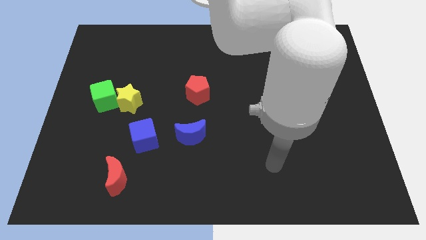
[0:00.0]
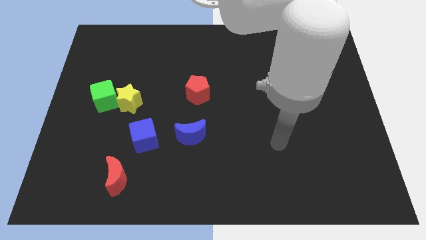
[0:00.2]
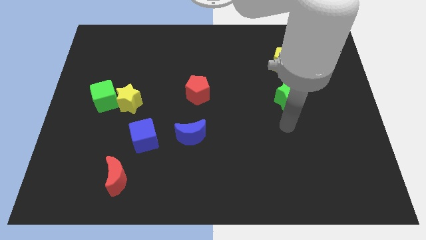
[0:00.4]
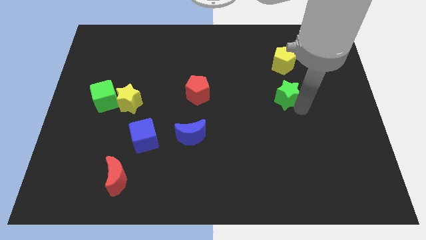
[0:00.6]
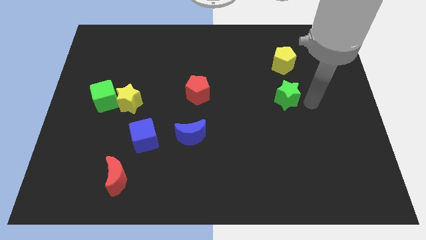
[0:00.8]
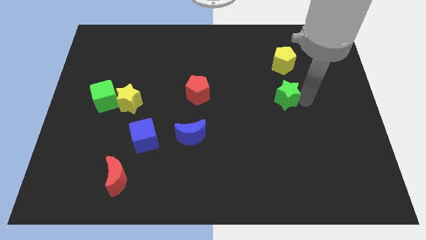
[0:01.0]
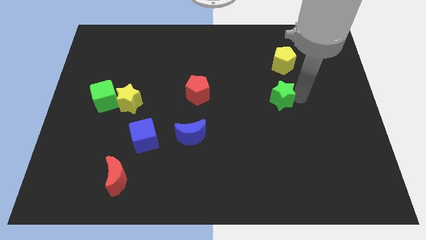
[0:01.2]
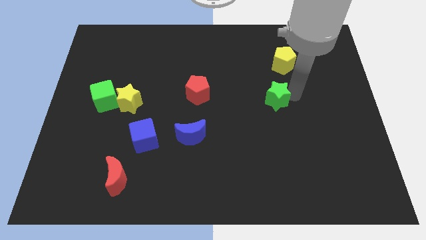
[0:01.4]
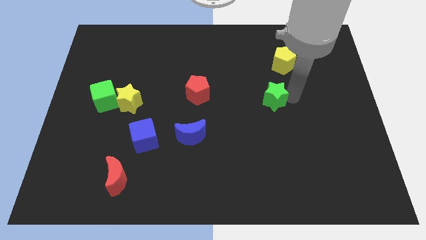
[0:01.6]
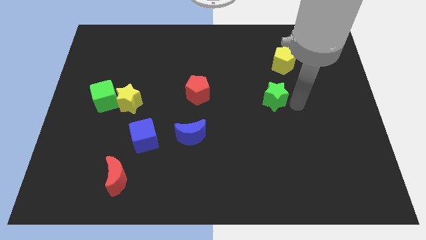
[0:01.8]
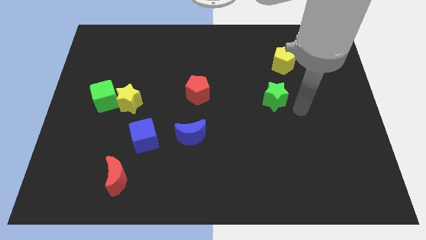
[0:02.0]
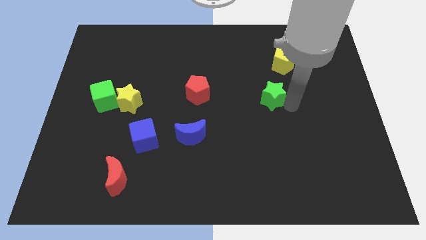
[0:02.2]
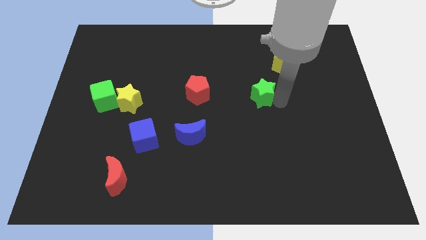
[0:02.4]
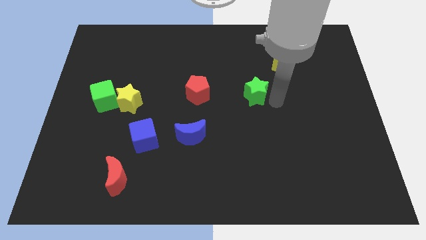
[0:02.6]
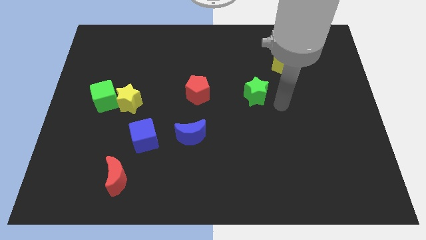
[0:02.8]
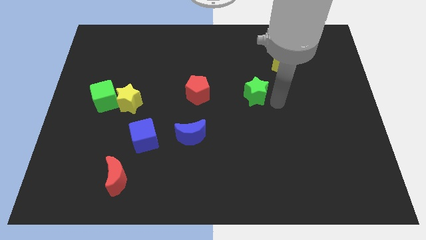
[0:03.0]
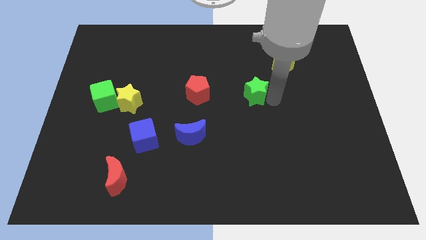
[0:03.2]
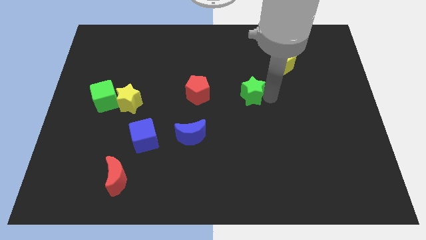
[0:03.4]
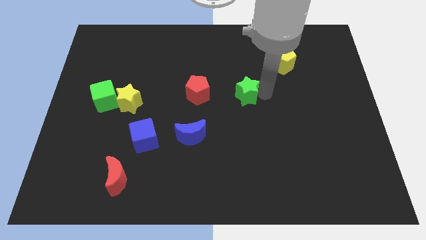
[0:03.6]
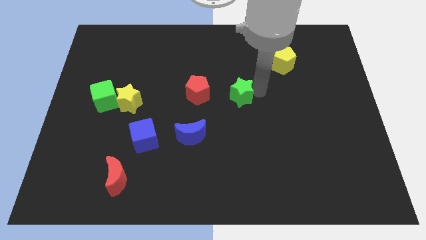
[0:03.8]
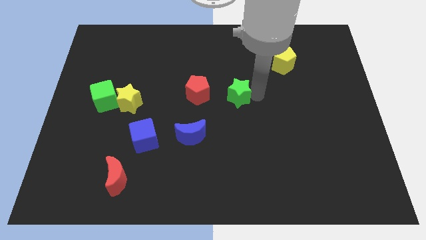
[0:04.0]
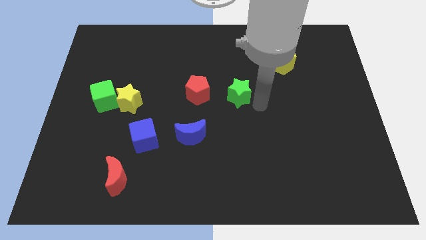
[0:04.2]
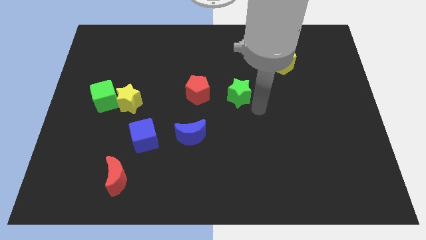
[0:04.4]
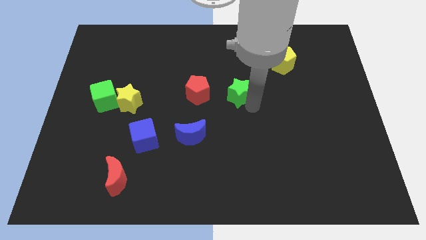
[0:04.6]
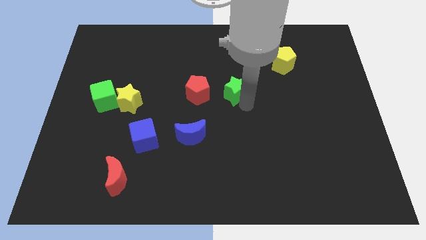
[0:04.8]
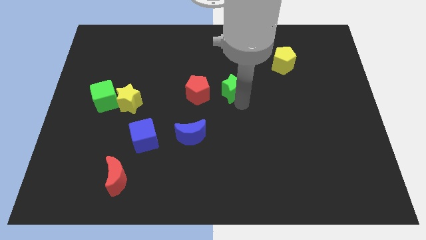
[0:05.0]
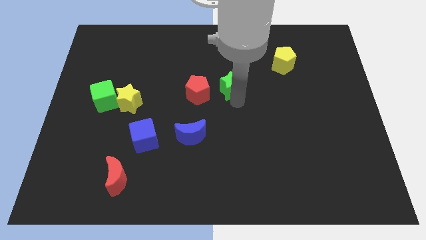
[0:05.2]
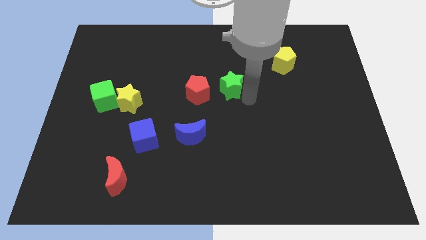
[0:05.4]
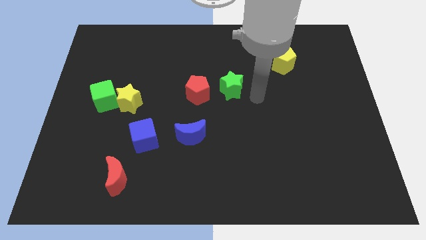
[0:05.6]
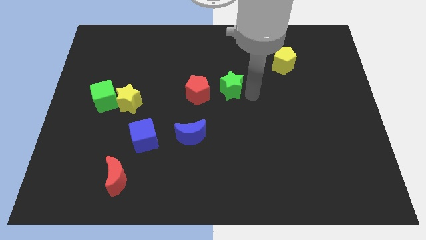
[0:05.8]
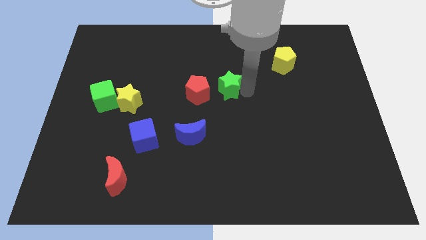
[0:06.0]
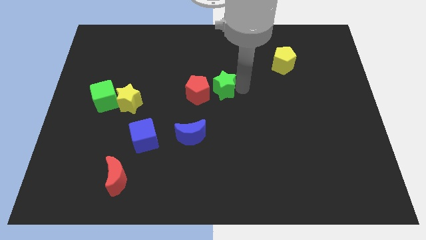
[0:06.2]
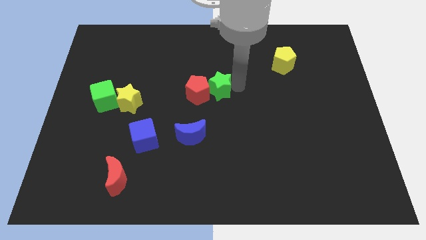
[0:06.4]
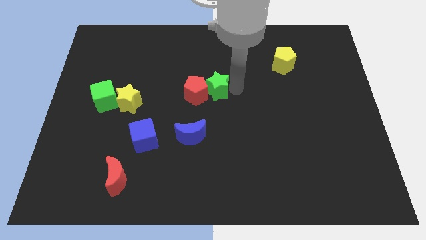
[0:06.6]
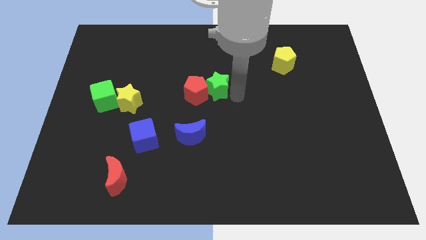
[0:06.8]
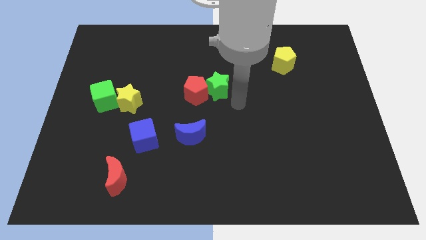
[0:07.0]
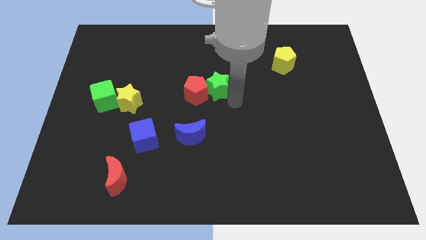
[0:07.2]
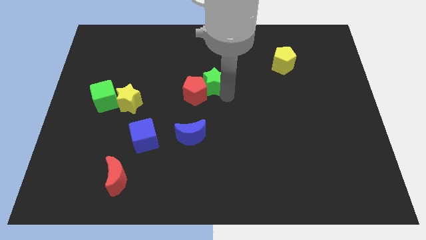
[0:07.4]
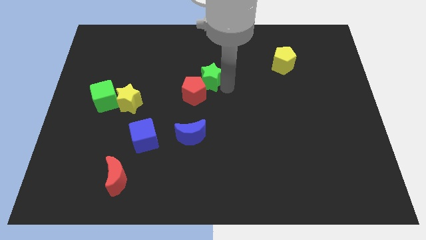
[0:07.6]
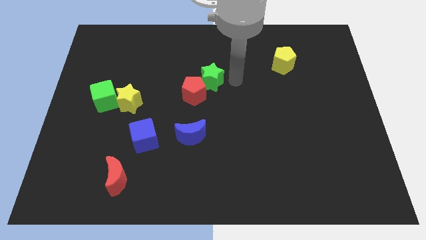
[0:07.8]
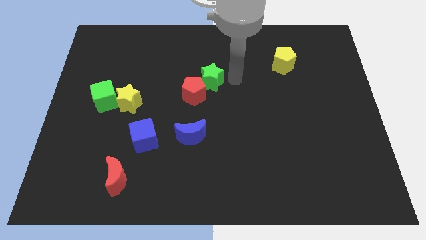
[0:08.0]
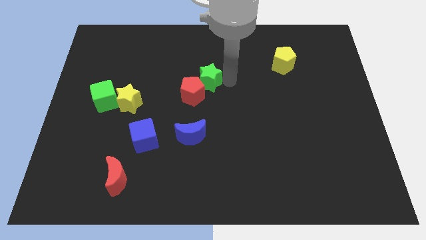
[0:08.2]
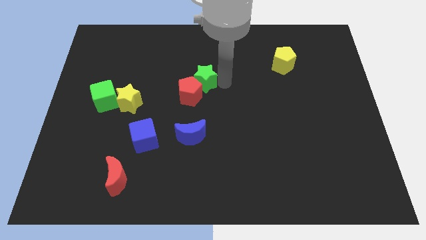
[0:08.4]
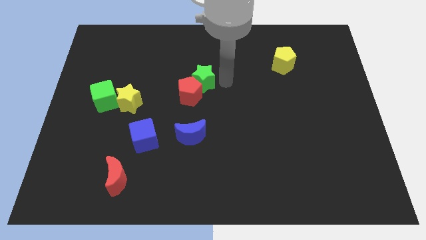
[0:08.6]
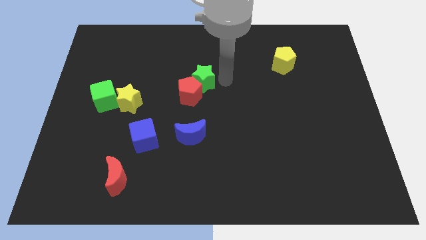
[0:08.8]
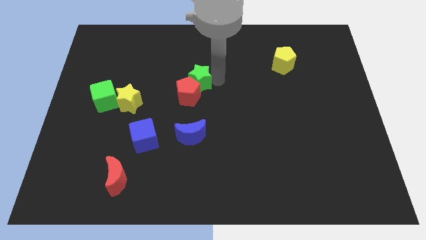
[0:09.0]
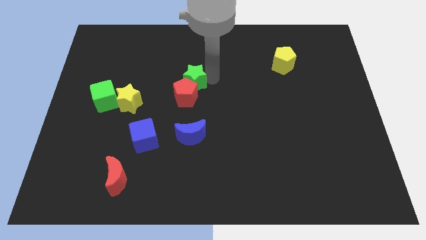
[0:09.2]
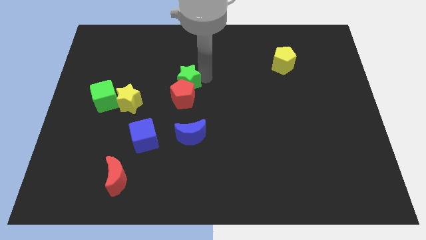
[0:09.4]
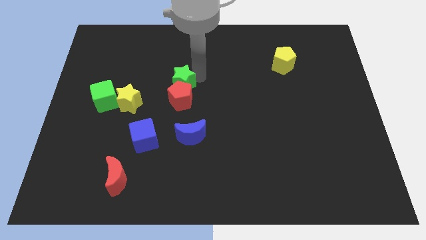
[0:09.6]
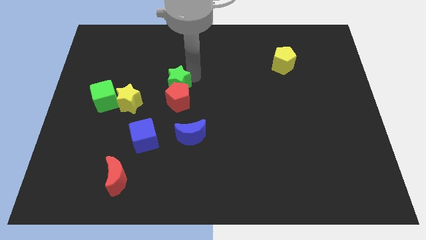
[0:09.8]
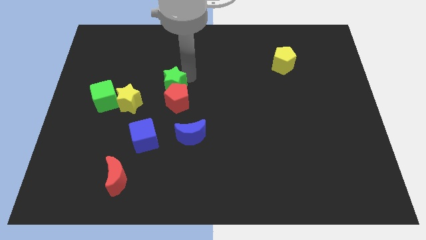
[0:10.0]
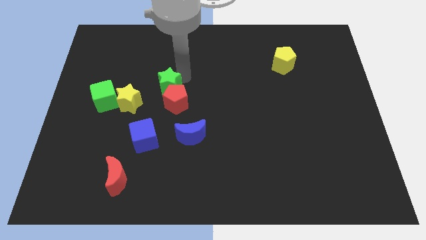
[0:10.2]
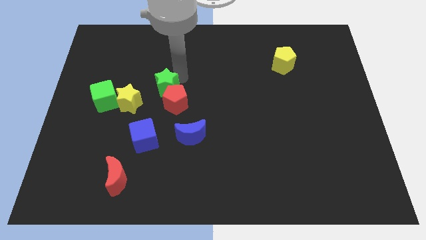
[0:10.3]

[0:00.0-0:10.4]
slide the green star right of the green cube
